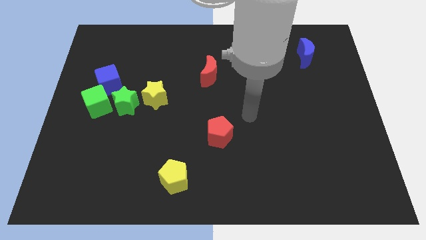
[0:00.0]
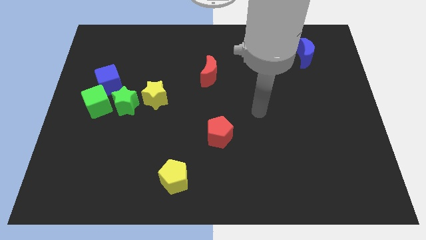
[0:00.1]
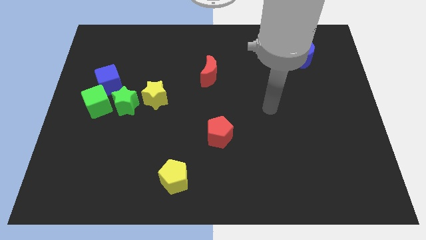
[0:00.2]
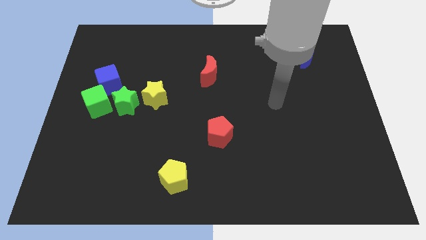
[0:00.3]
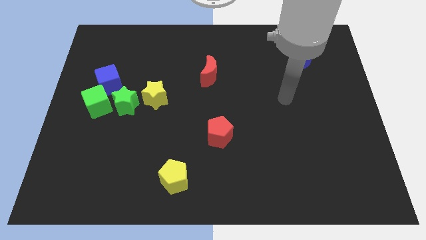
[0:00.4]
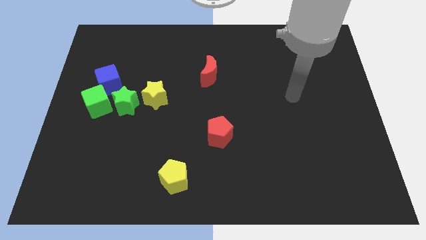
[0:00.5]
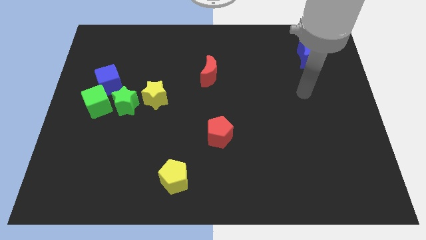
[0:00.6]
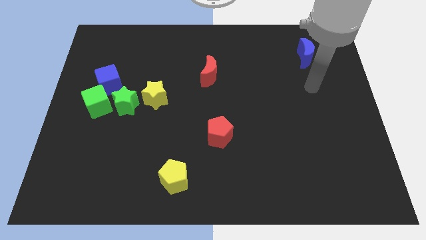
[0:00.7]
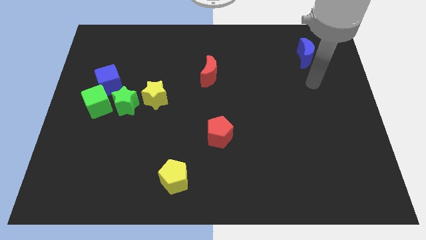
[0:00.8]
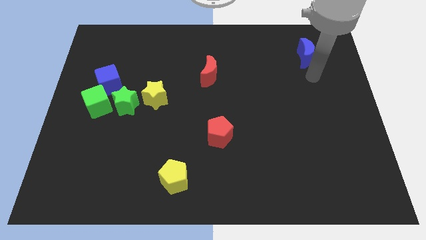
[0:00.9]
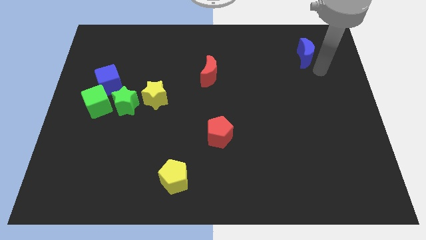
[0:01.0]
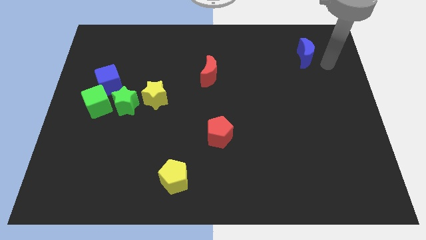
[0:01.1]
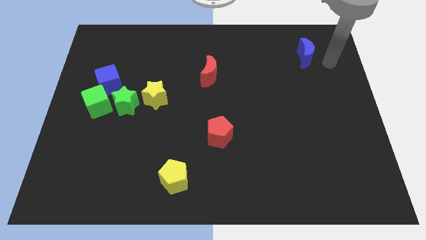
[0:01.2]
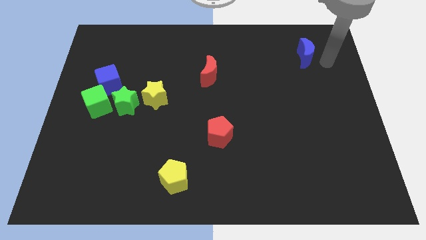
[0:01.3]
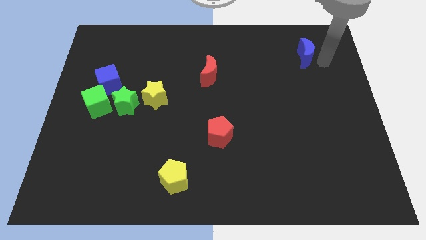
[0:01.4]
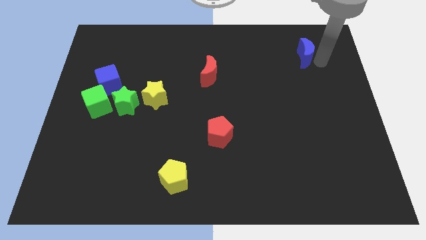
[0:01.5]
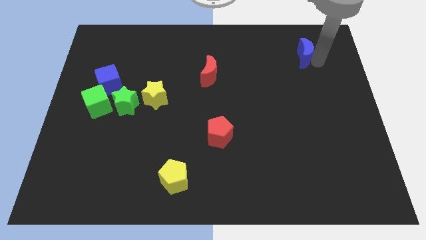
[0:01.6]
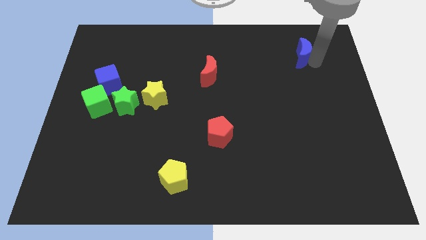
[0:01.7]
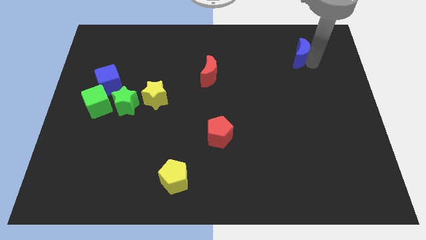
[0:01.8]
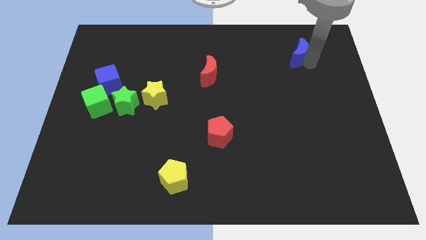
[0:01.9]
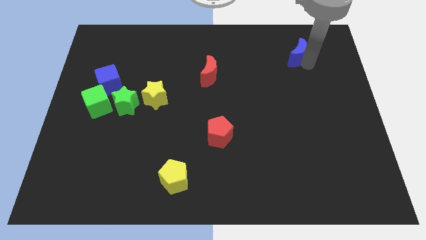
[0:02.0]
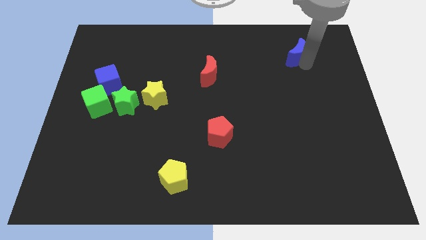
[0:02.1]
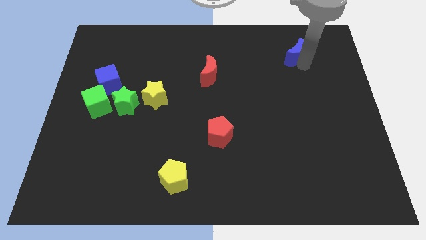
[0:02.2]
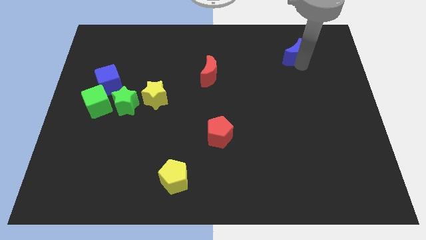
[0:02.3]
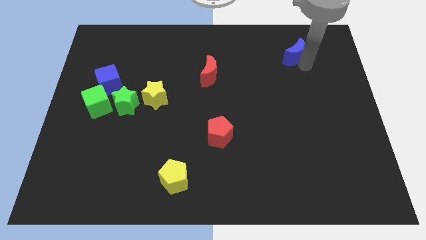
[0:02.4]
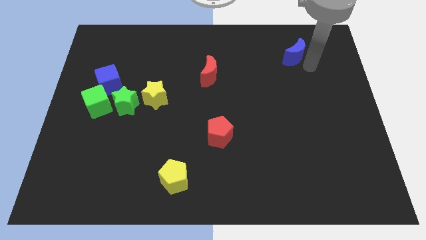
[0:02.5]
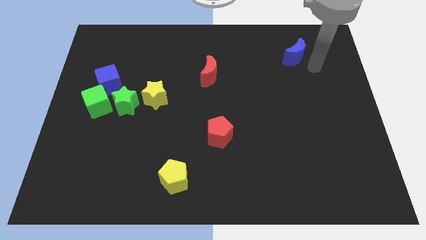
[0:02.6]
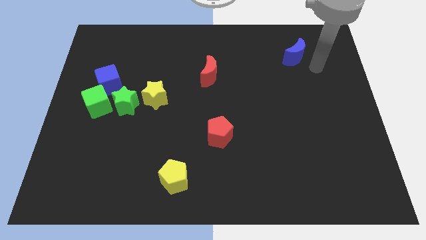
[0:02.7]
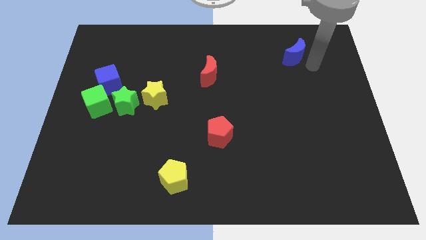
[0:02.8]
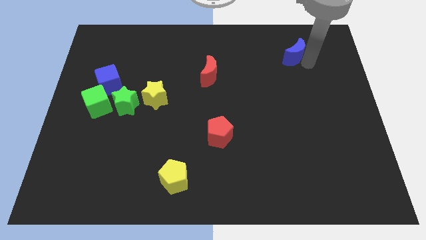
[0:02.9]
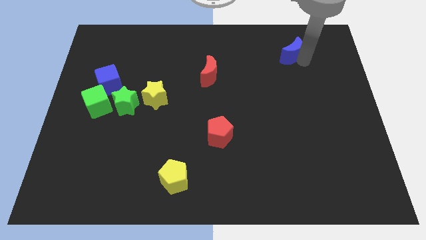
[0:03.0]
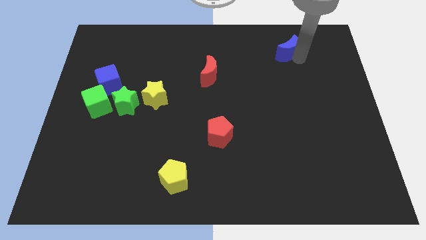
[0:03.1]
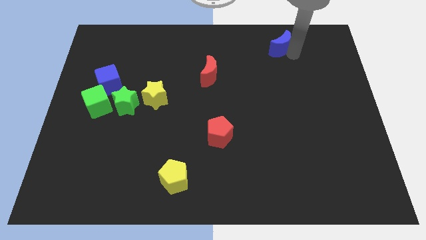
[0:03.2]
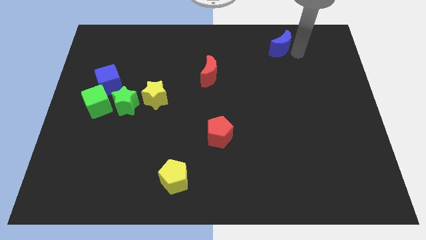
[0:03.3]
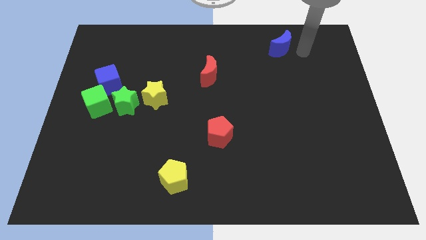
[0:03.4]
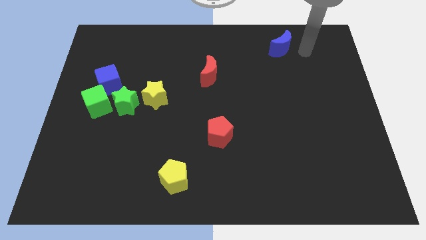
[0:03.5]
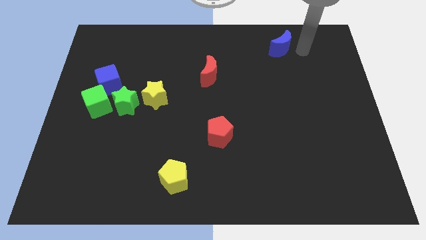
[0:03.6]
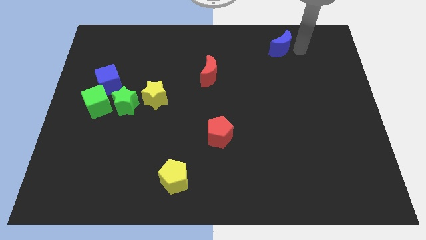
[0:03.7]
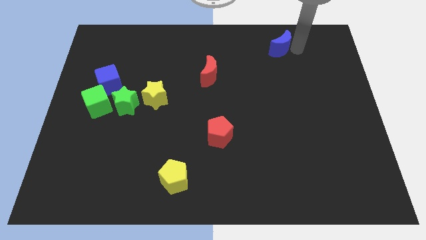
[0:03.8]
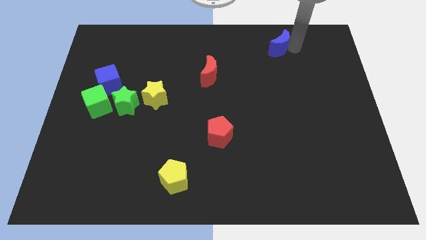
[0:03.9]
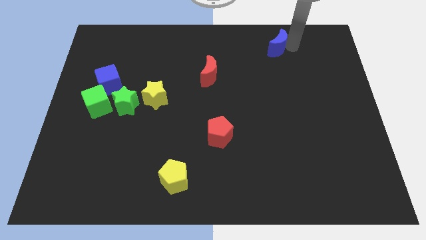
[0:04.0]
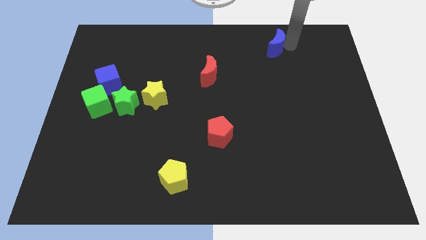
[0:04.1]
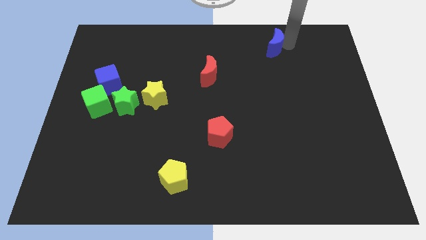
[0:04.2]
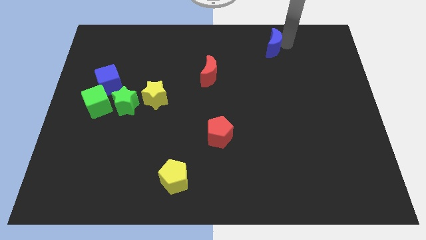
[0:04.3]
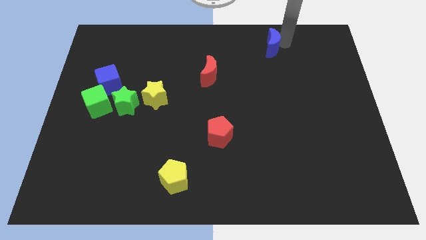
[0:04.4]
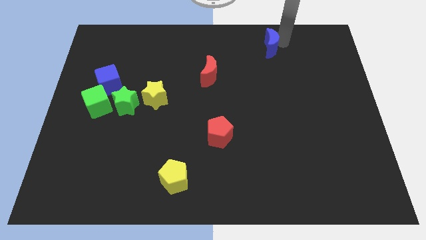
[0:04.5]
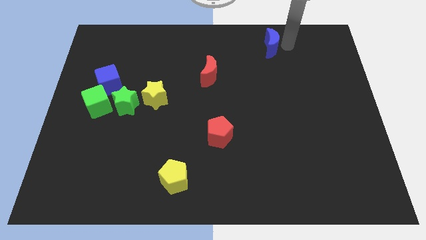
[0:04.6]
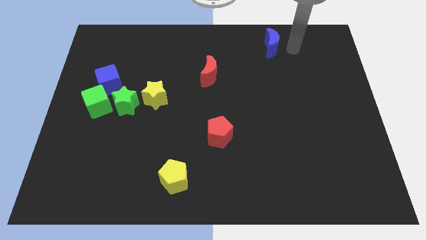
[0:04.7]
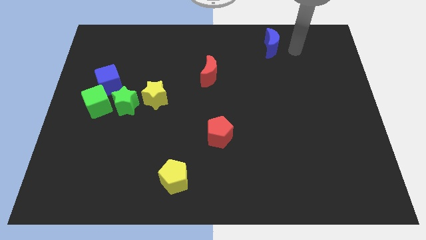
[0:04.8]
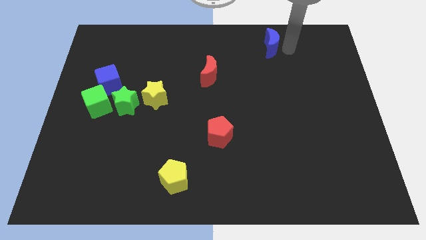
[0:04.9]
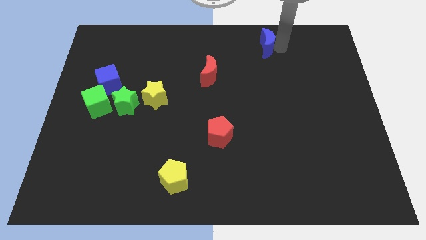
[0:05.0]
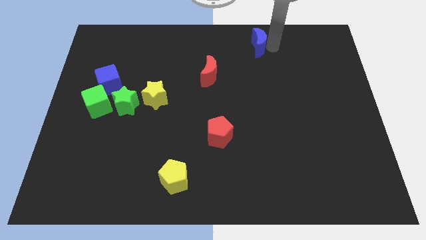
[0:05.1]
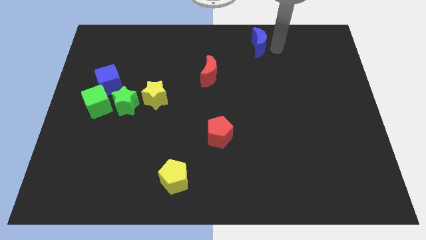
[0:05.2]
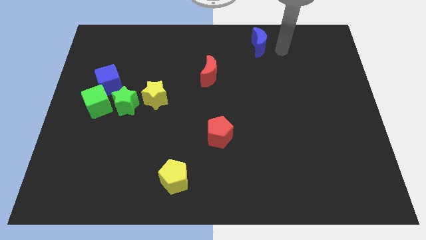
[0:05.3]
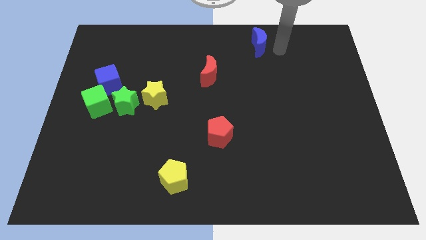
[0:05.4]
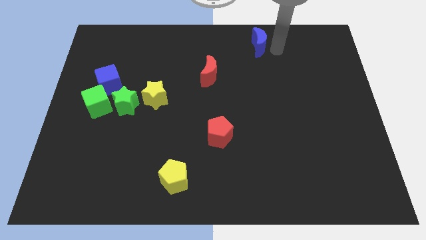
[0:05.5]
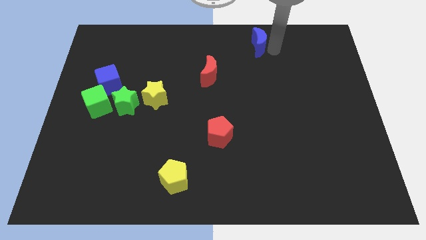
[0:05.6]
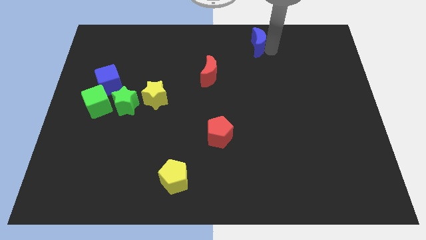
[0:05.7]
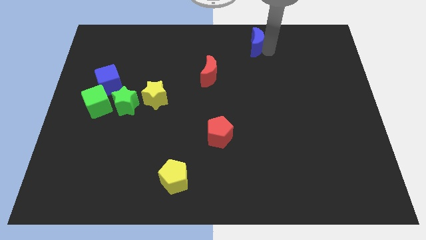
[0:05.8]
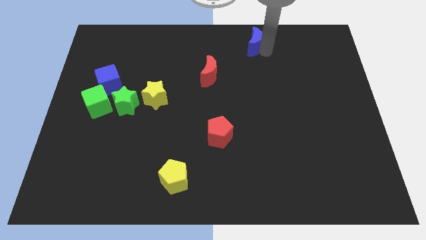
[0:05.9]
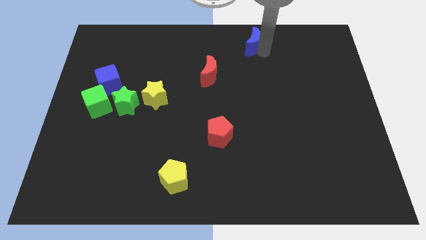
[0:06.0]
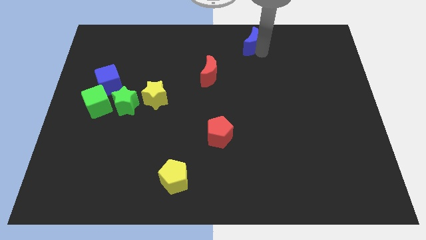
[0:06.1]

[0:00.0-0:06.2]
slide the blue moon to the top side
